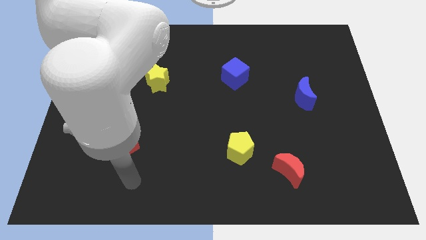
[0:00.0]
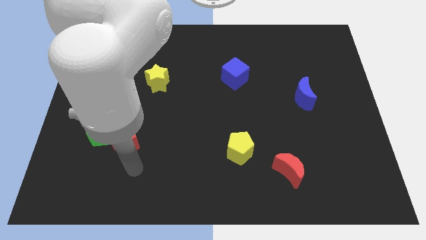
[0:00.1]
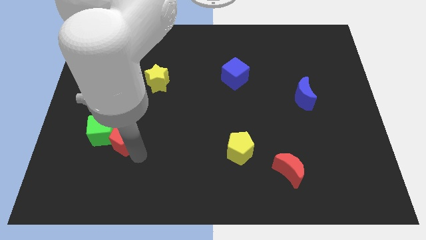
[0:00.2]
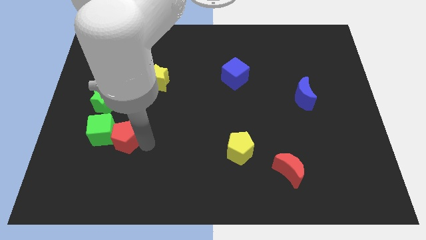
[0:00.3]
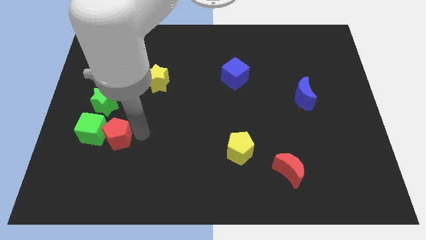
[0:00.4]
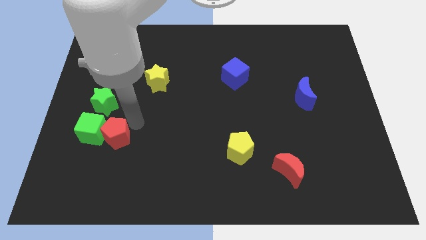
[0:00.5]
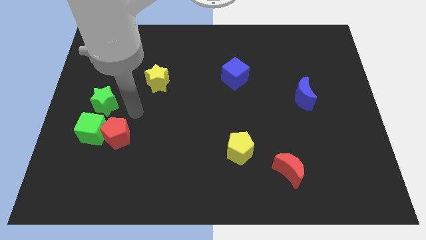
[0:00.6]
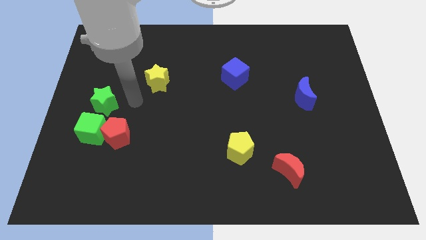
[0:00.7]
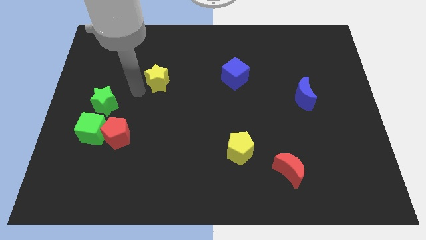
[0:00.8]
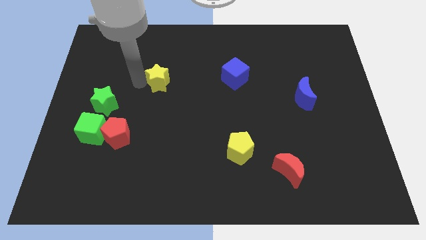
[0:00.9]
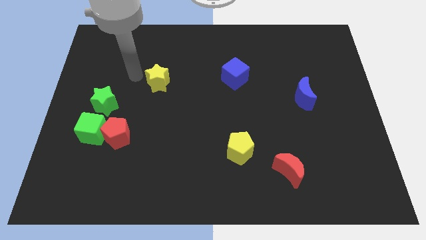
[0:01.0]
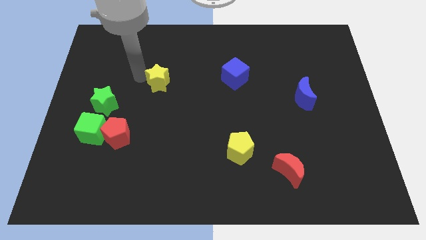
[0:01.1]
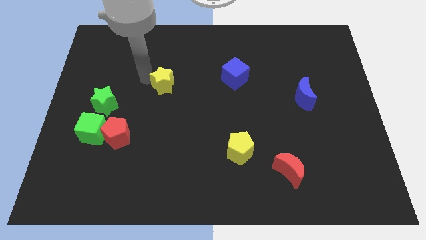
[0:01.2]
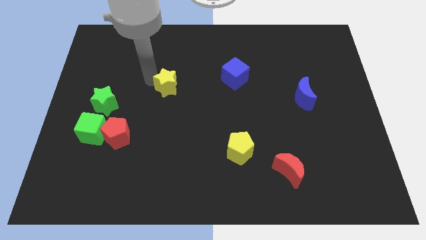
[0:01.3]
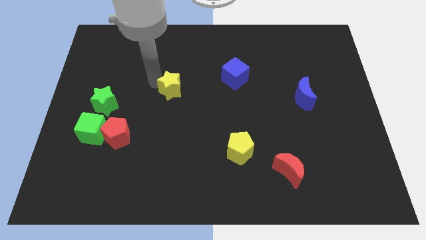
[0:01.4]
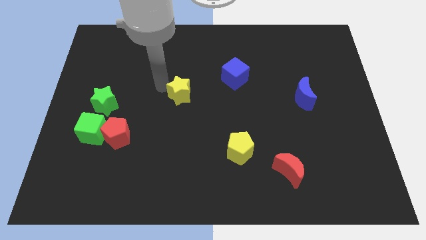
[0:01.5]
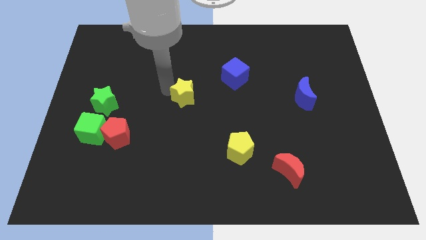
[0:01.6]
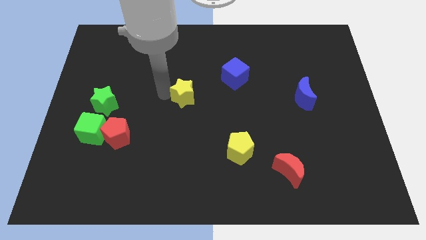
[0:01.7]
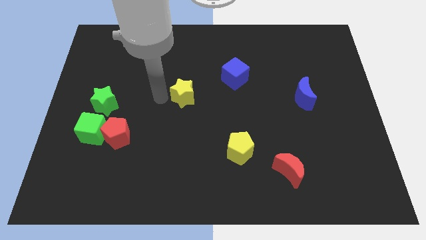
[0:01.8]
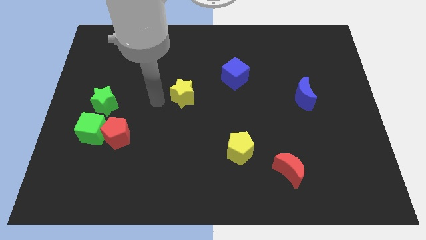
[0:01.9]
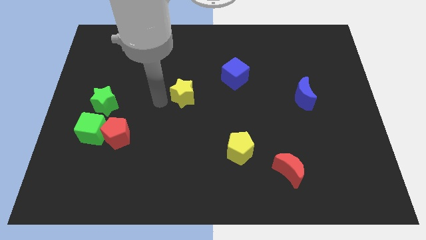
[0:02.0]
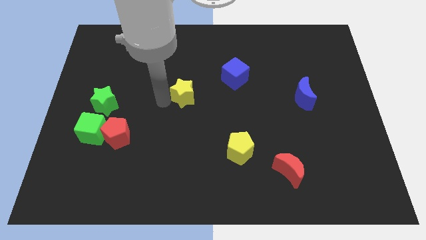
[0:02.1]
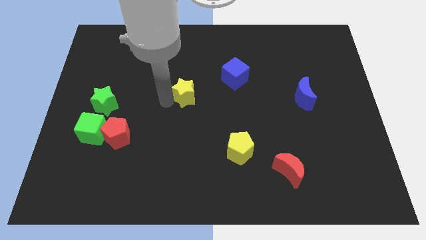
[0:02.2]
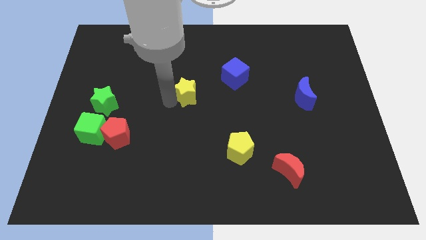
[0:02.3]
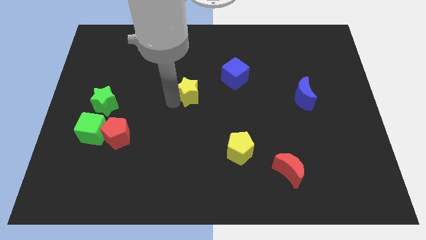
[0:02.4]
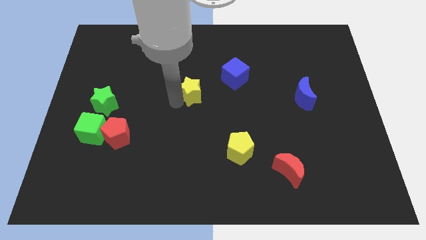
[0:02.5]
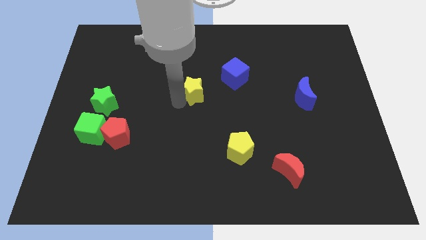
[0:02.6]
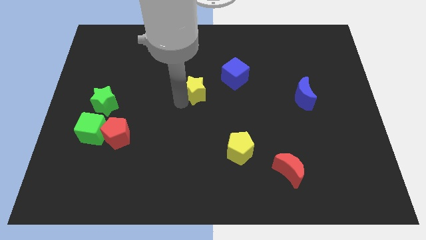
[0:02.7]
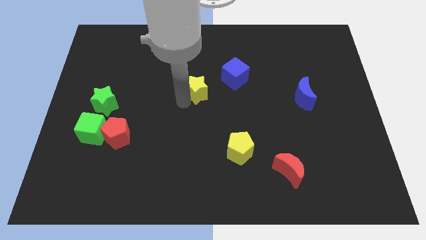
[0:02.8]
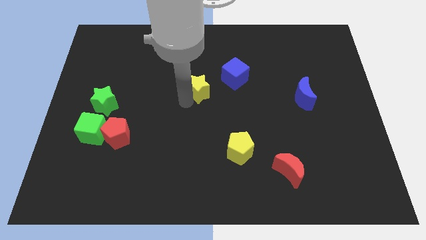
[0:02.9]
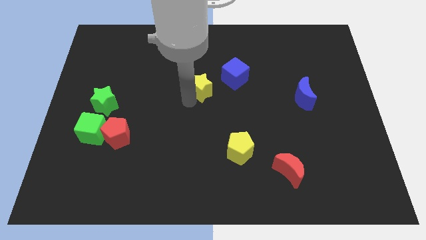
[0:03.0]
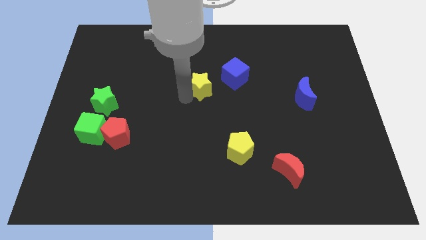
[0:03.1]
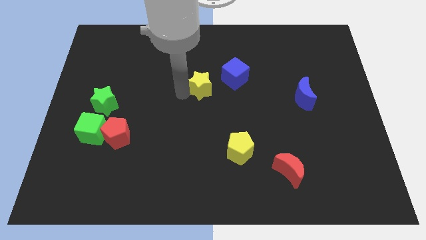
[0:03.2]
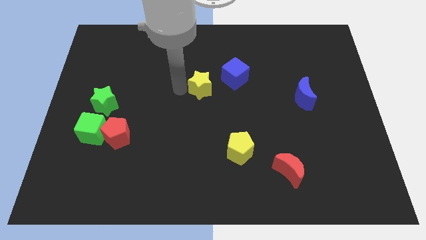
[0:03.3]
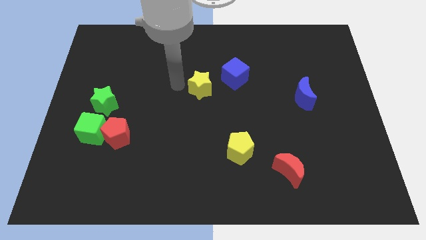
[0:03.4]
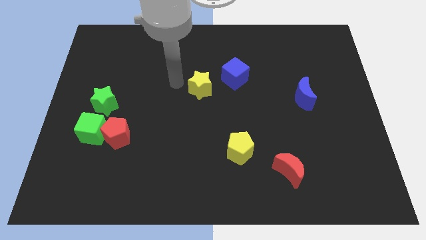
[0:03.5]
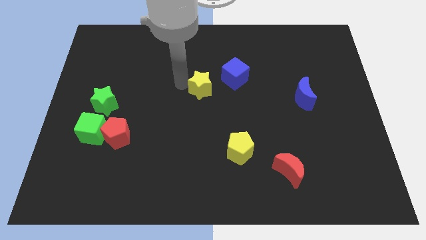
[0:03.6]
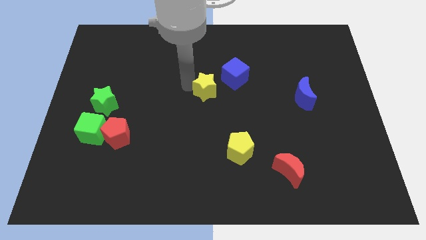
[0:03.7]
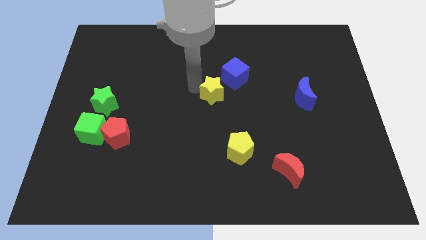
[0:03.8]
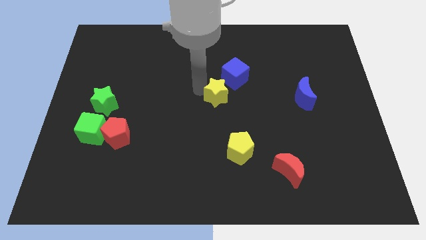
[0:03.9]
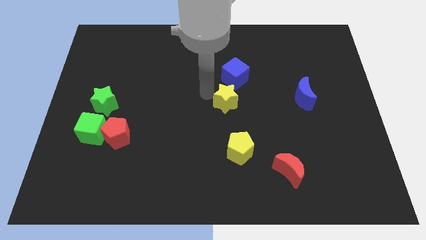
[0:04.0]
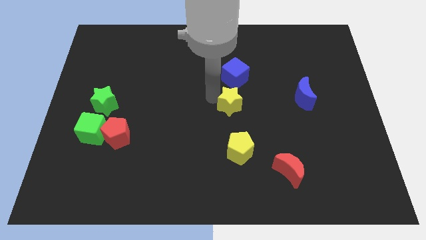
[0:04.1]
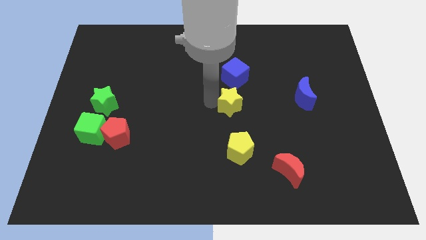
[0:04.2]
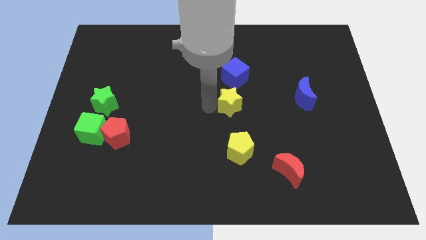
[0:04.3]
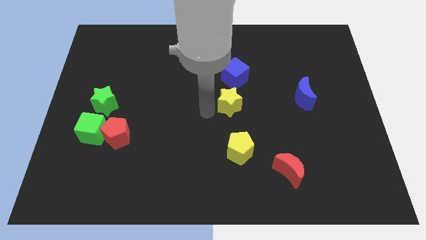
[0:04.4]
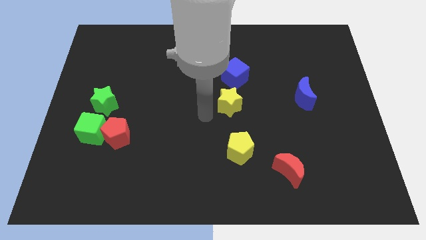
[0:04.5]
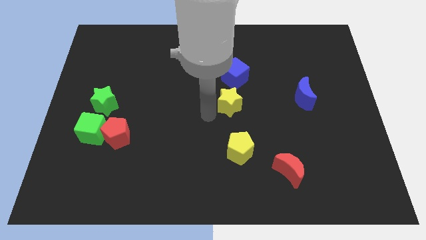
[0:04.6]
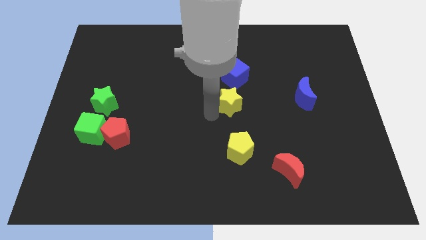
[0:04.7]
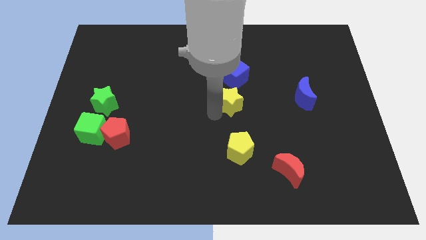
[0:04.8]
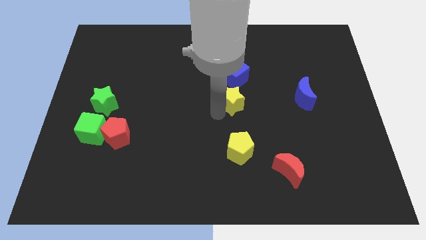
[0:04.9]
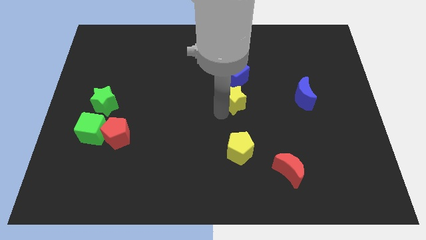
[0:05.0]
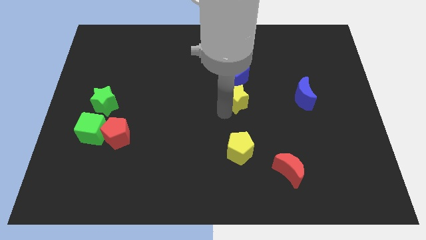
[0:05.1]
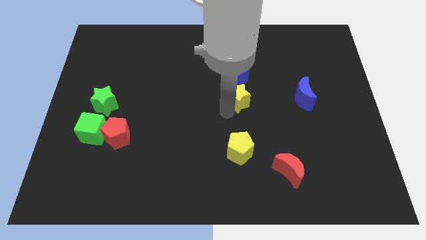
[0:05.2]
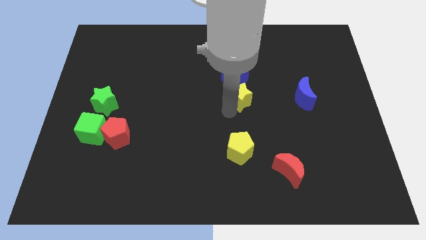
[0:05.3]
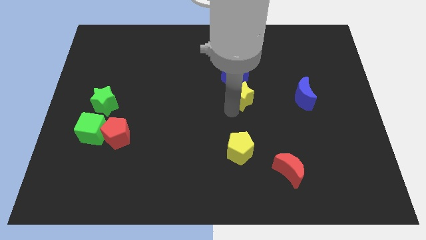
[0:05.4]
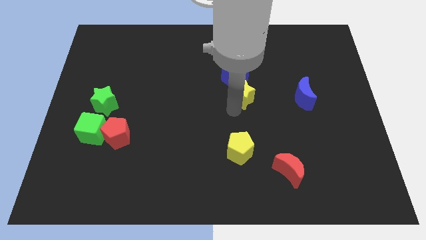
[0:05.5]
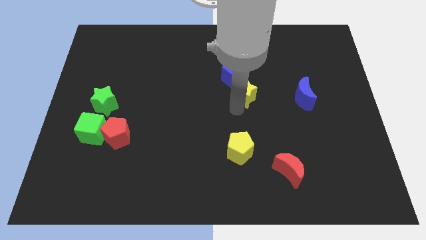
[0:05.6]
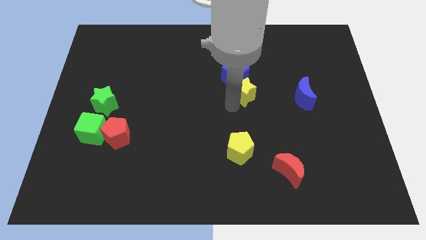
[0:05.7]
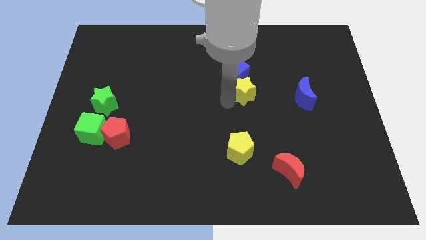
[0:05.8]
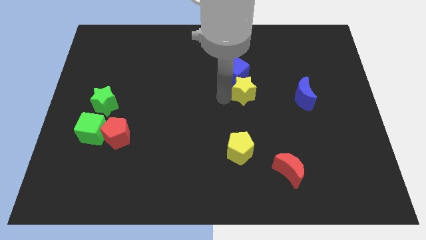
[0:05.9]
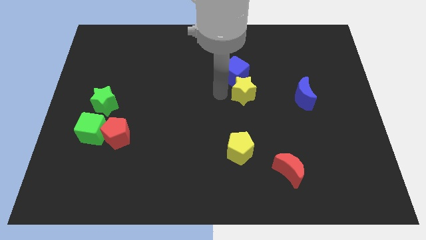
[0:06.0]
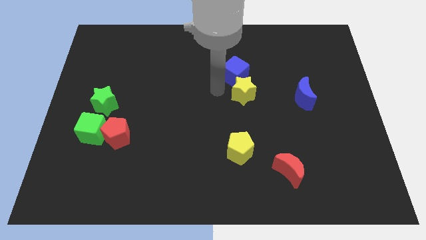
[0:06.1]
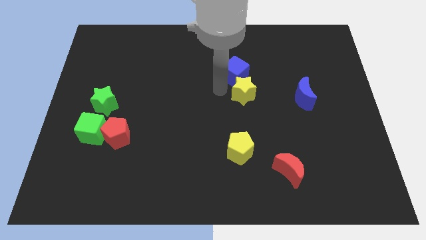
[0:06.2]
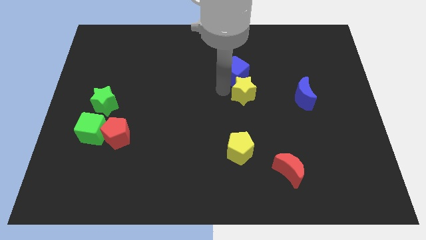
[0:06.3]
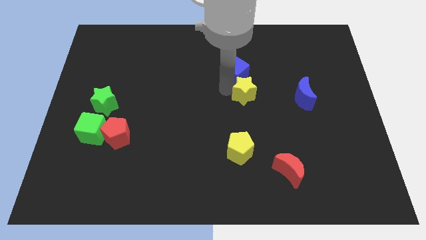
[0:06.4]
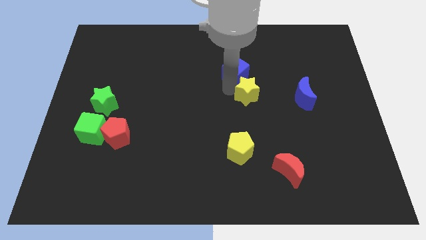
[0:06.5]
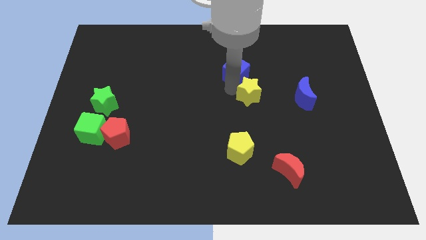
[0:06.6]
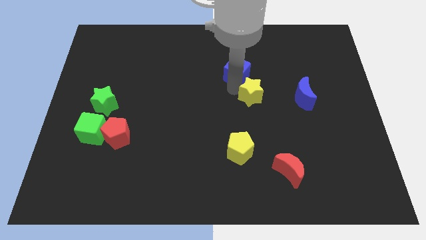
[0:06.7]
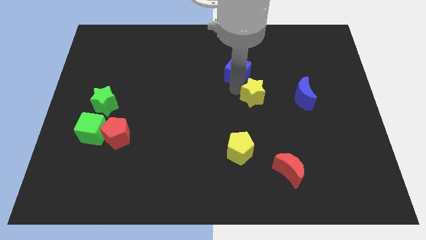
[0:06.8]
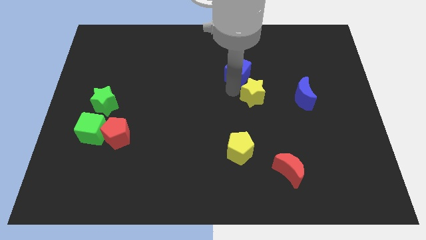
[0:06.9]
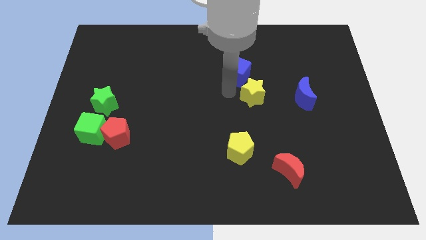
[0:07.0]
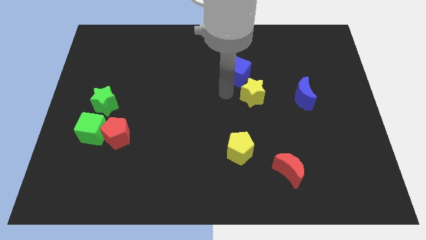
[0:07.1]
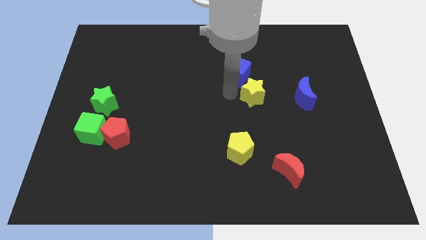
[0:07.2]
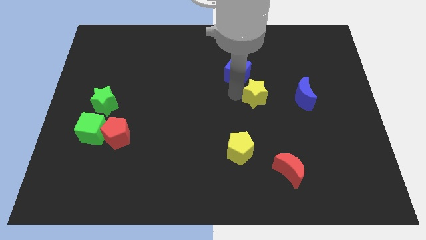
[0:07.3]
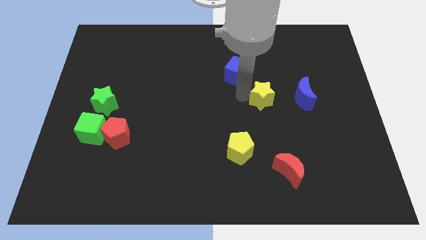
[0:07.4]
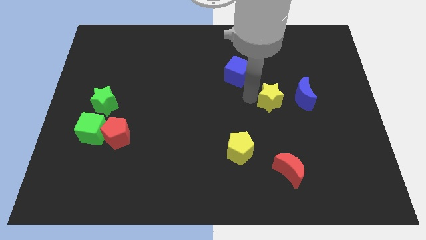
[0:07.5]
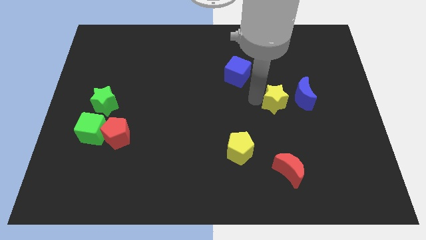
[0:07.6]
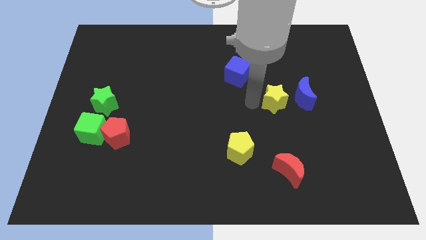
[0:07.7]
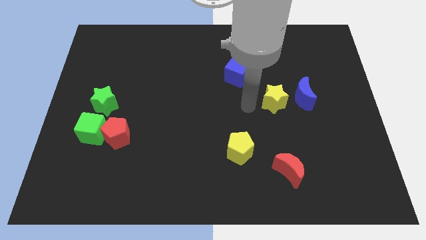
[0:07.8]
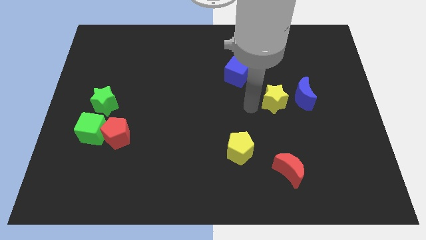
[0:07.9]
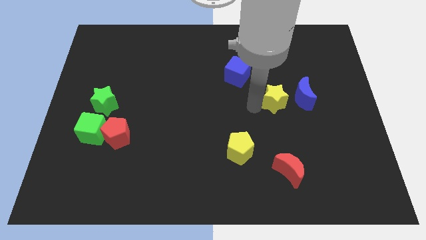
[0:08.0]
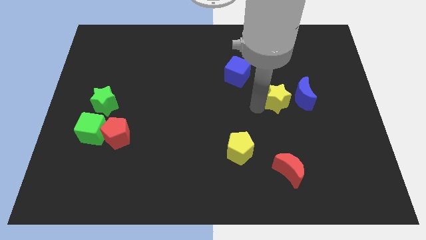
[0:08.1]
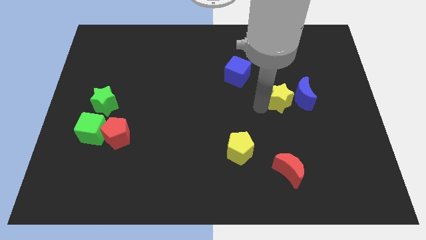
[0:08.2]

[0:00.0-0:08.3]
slide the yellow star close to the blue moon
